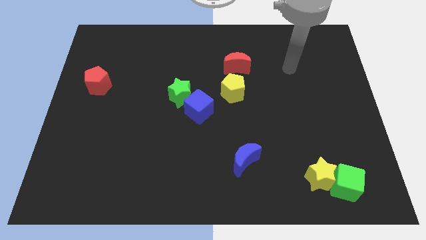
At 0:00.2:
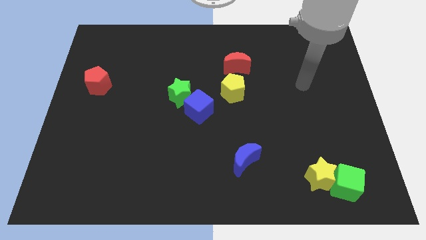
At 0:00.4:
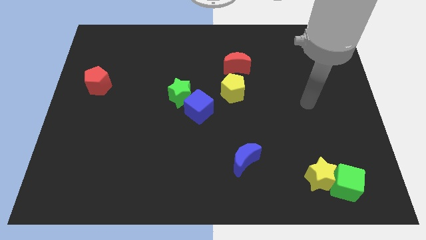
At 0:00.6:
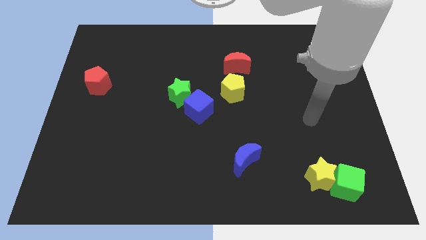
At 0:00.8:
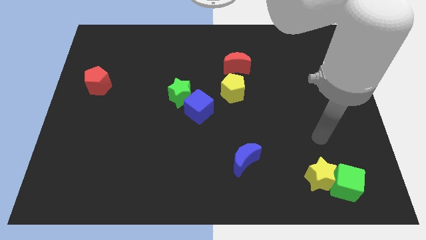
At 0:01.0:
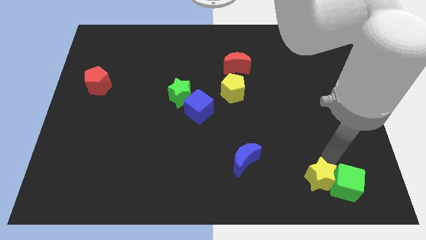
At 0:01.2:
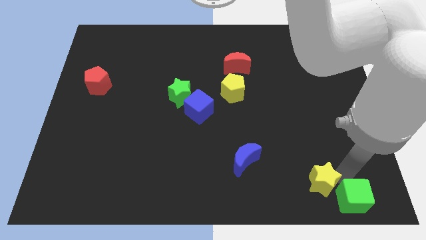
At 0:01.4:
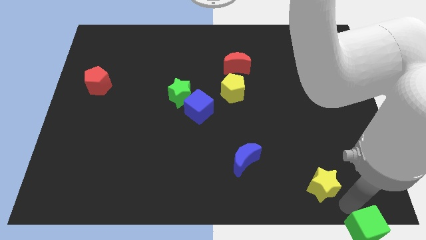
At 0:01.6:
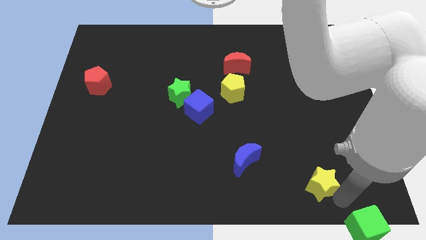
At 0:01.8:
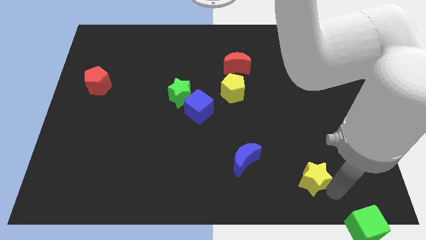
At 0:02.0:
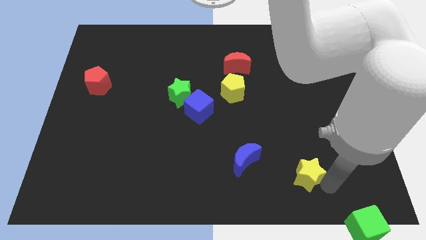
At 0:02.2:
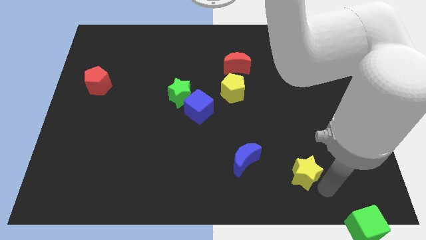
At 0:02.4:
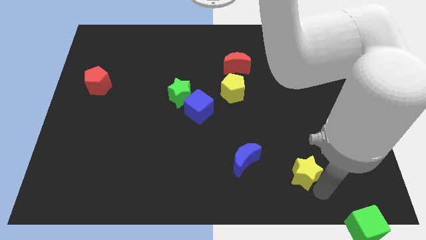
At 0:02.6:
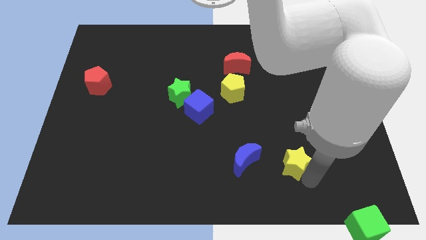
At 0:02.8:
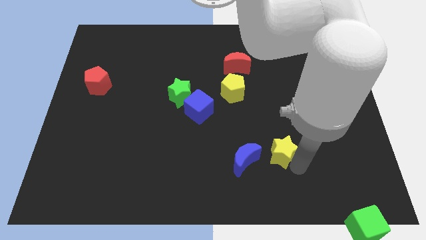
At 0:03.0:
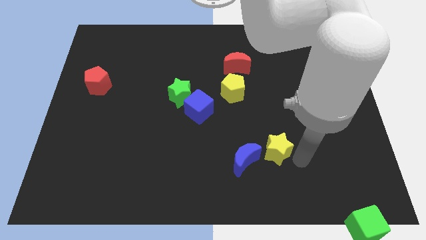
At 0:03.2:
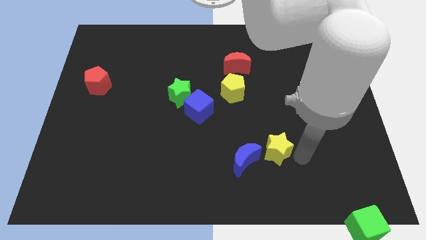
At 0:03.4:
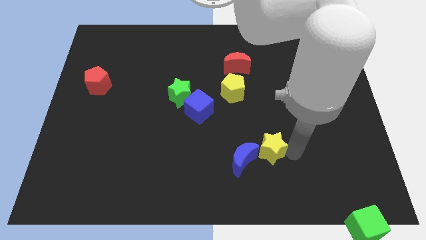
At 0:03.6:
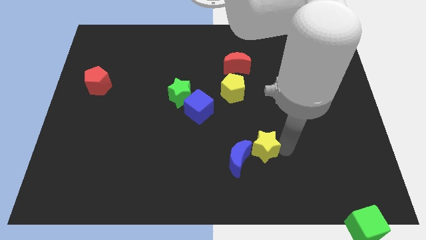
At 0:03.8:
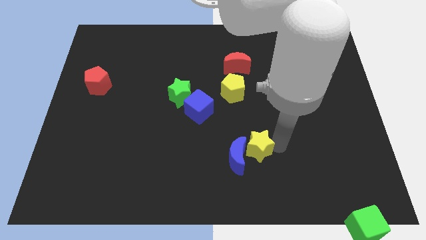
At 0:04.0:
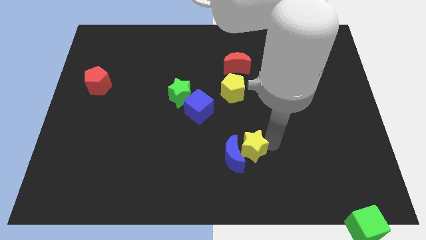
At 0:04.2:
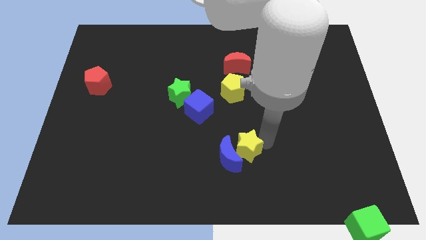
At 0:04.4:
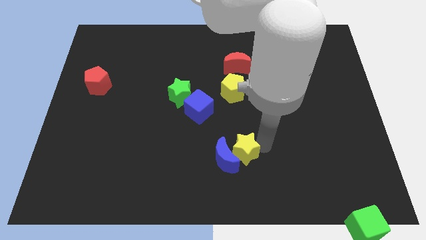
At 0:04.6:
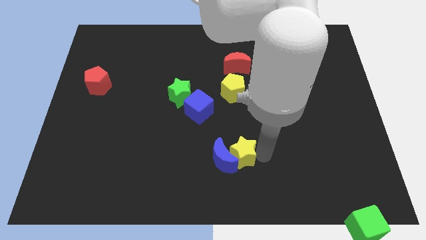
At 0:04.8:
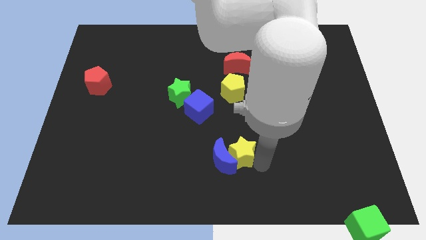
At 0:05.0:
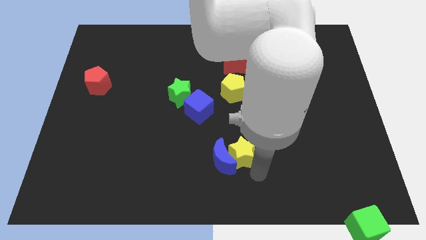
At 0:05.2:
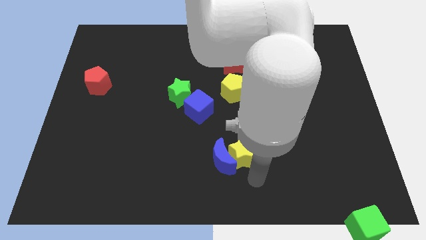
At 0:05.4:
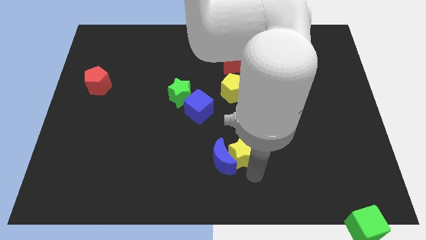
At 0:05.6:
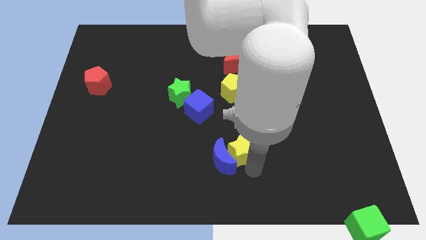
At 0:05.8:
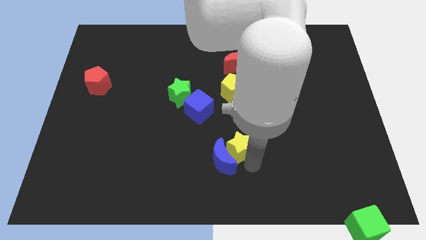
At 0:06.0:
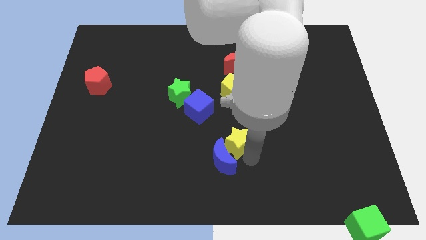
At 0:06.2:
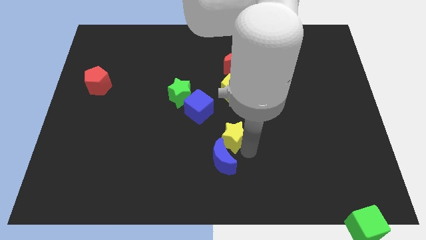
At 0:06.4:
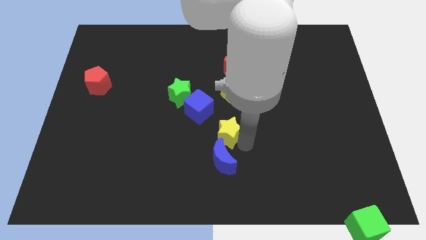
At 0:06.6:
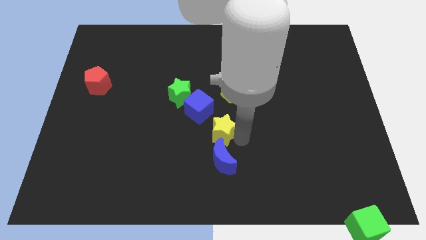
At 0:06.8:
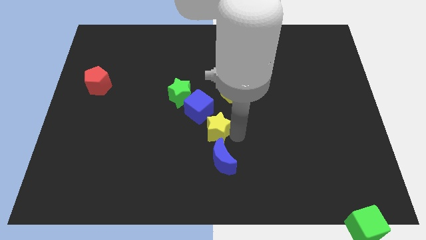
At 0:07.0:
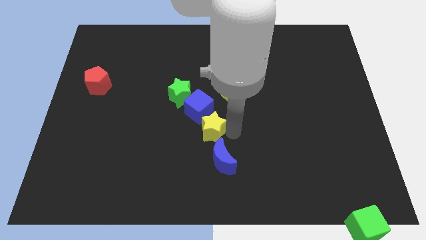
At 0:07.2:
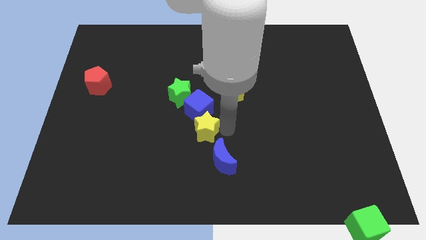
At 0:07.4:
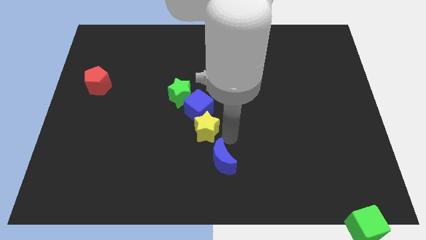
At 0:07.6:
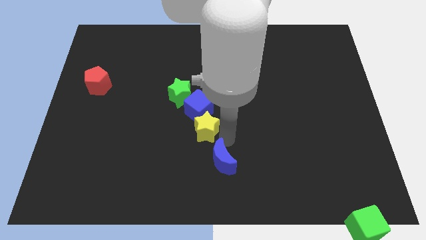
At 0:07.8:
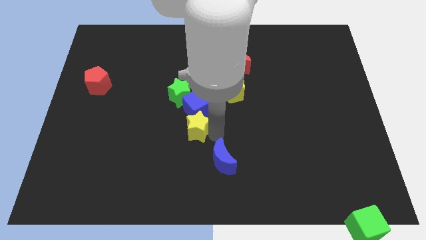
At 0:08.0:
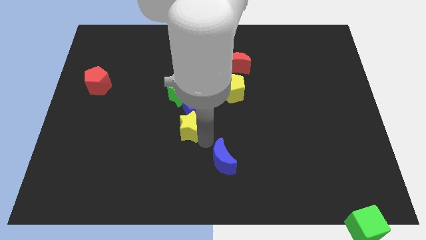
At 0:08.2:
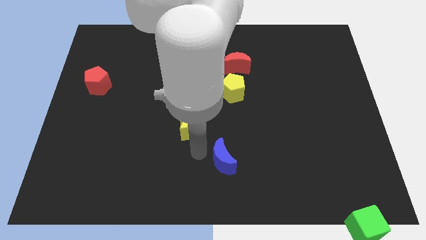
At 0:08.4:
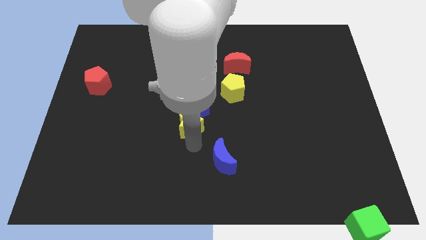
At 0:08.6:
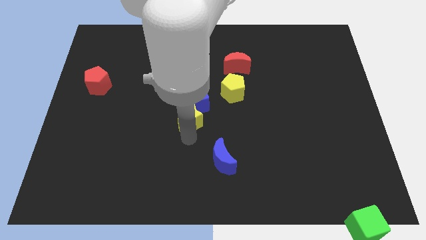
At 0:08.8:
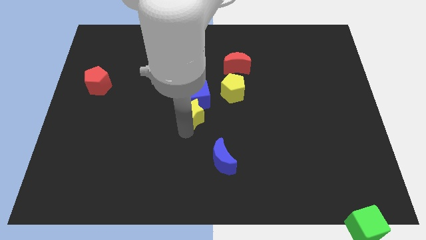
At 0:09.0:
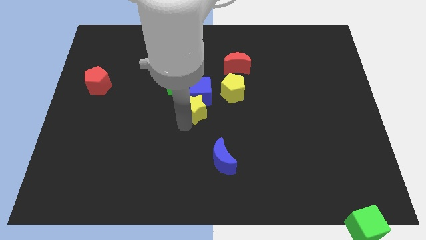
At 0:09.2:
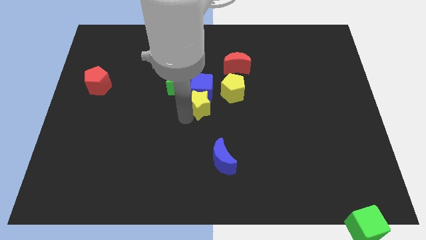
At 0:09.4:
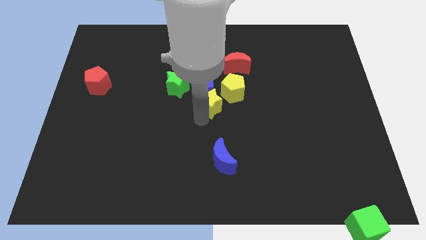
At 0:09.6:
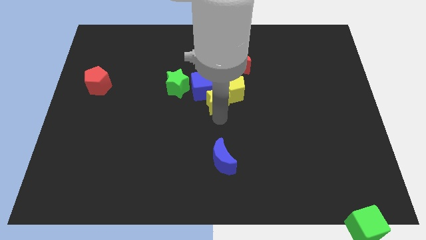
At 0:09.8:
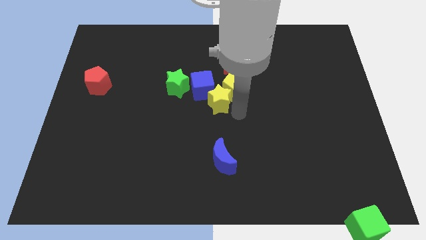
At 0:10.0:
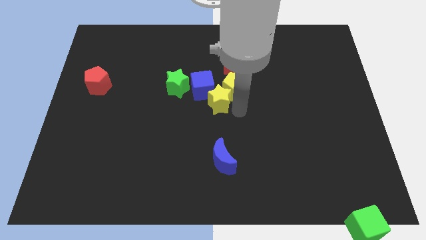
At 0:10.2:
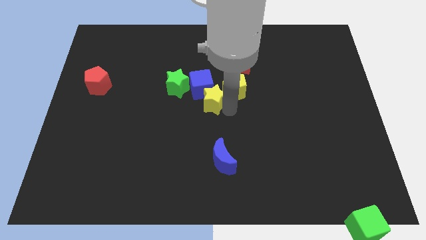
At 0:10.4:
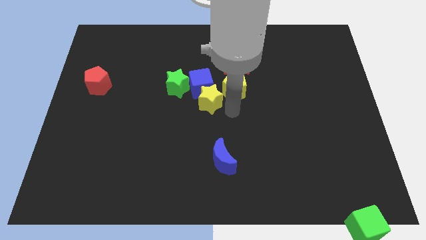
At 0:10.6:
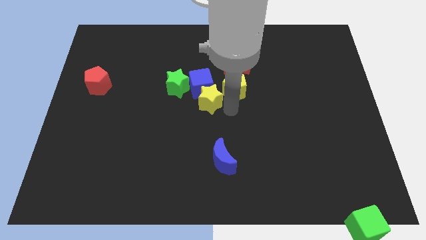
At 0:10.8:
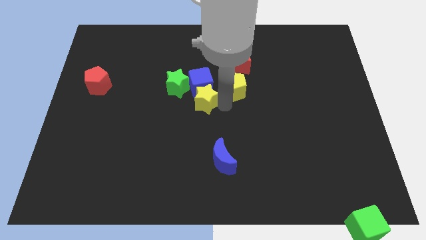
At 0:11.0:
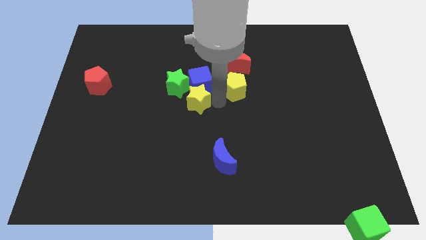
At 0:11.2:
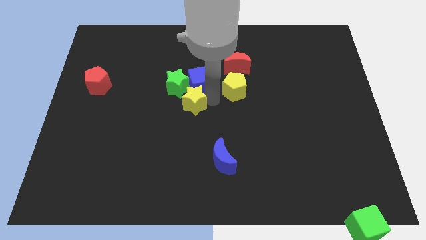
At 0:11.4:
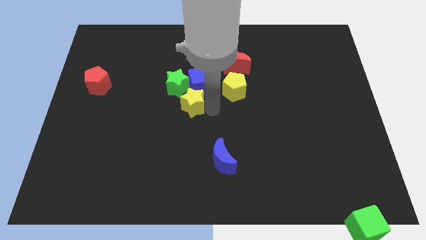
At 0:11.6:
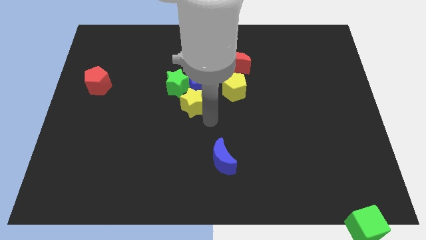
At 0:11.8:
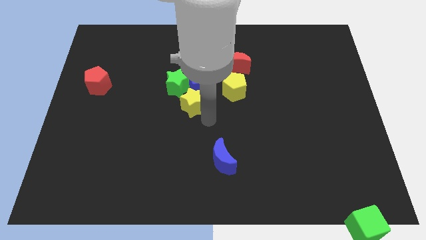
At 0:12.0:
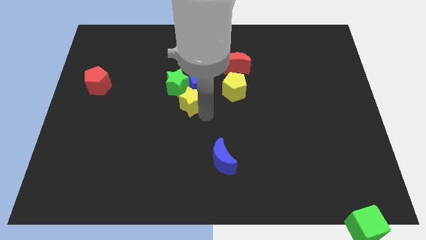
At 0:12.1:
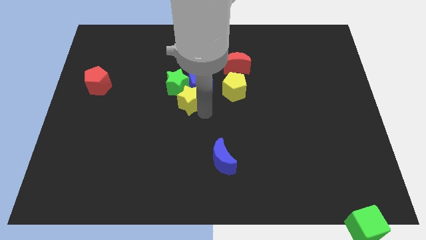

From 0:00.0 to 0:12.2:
slide the yellow star close to the green star

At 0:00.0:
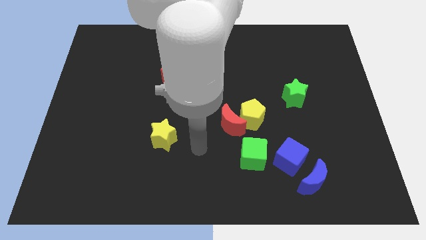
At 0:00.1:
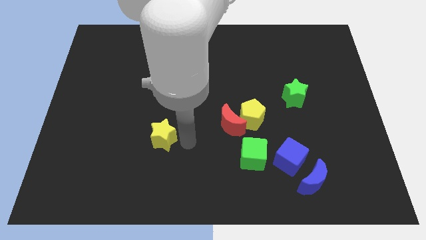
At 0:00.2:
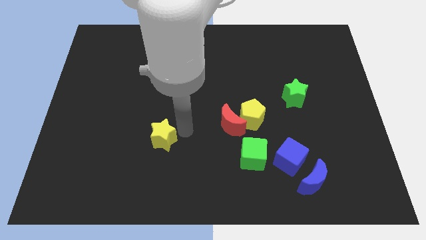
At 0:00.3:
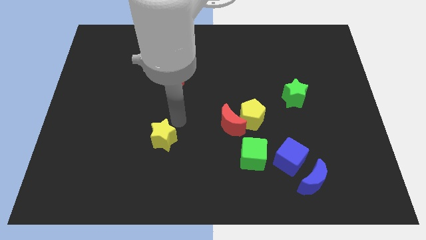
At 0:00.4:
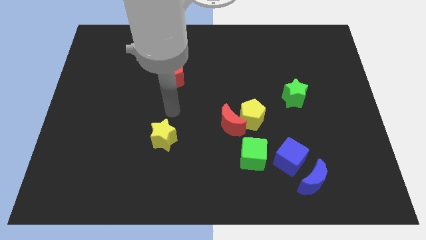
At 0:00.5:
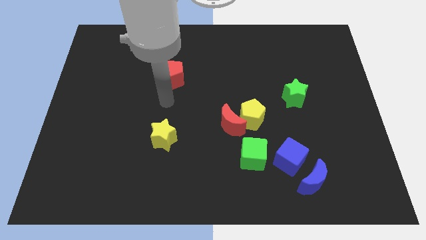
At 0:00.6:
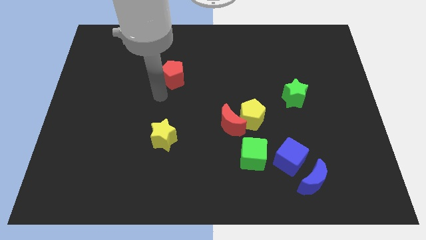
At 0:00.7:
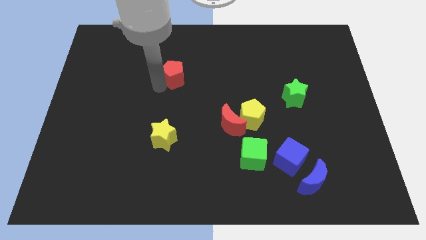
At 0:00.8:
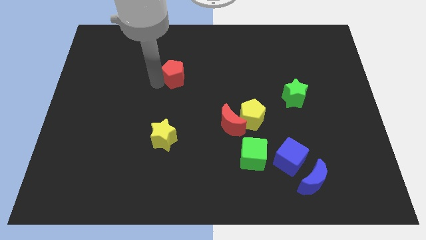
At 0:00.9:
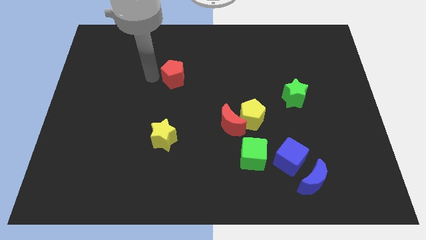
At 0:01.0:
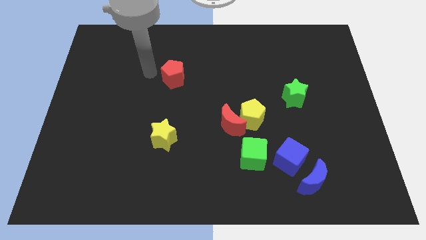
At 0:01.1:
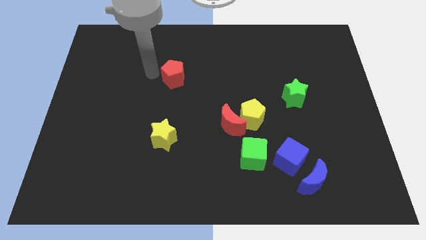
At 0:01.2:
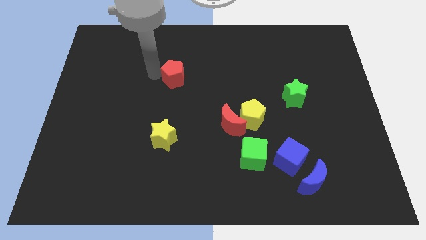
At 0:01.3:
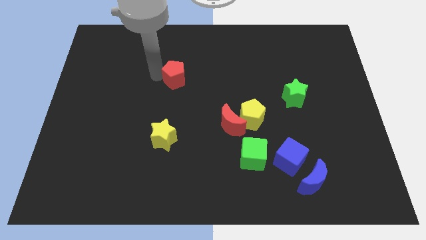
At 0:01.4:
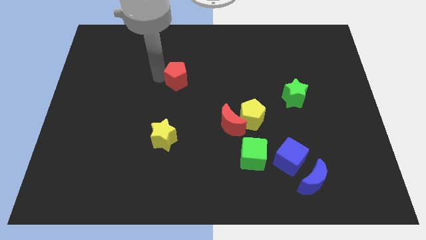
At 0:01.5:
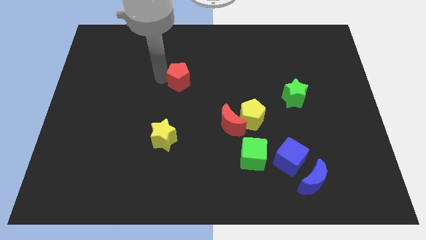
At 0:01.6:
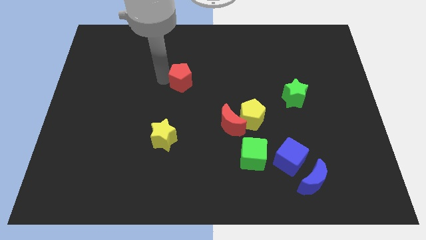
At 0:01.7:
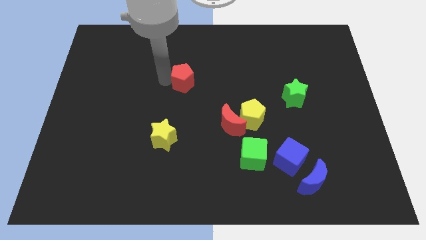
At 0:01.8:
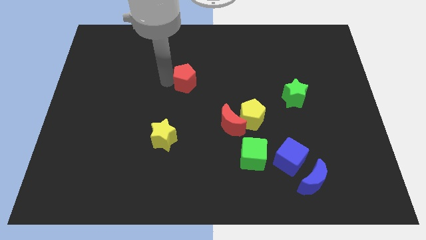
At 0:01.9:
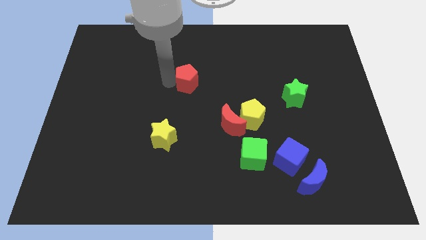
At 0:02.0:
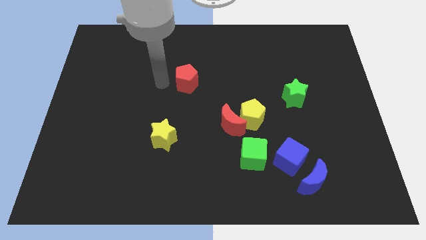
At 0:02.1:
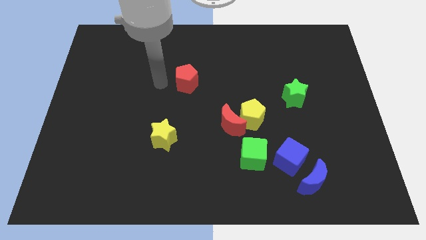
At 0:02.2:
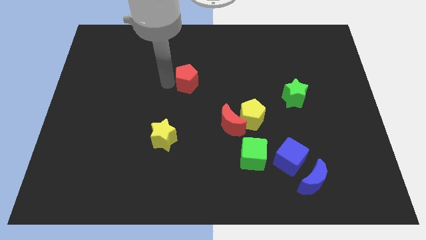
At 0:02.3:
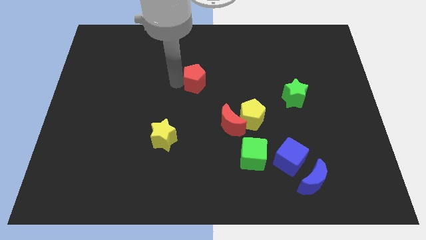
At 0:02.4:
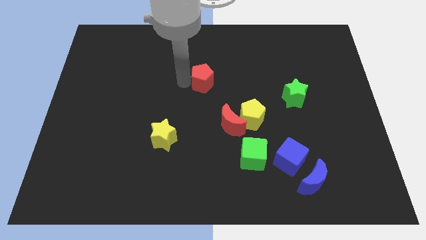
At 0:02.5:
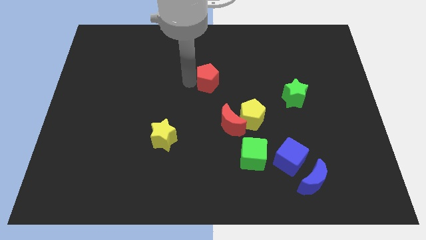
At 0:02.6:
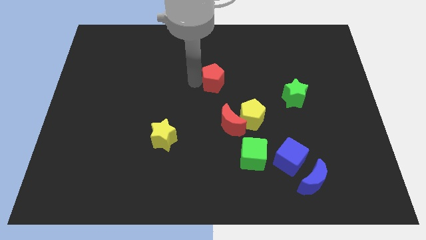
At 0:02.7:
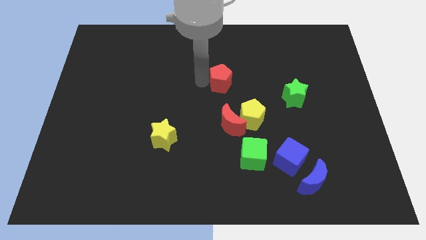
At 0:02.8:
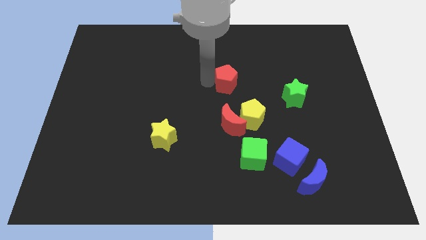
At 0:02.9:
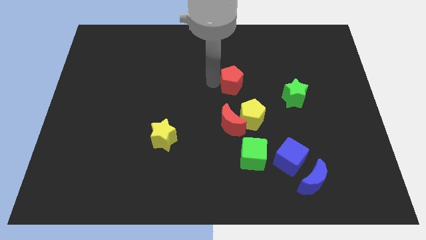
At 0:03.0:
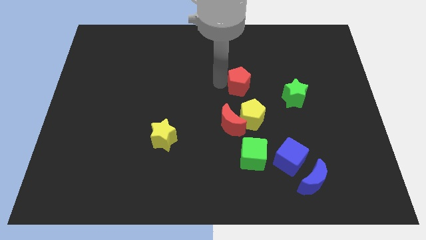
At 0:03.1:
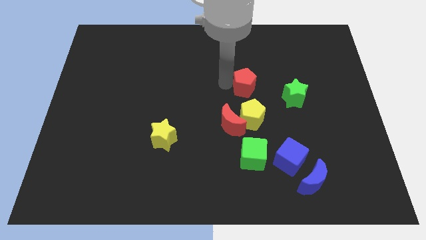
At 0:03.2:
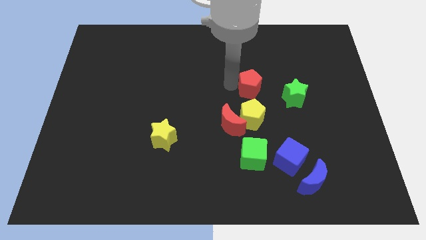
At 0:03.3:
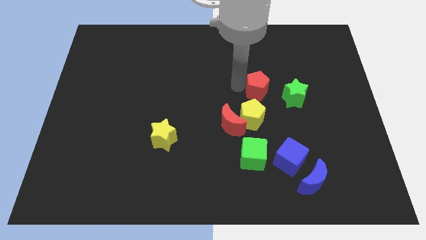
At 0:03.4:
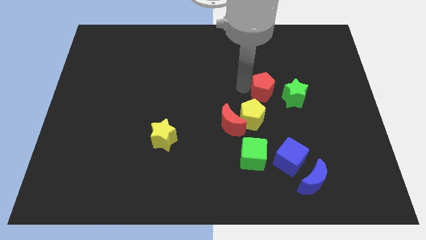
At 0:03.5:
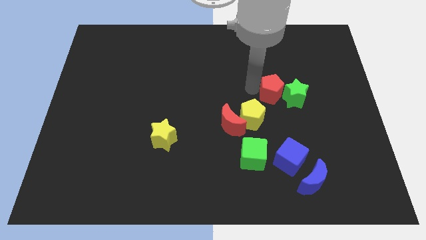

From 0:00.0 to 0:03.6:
slide the red pentagon towards the green star
